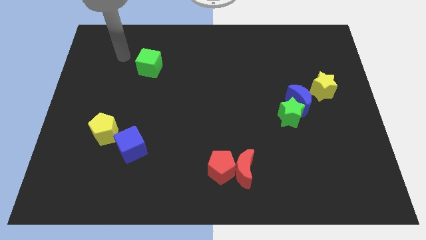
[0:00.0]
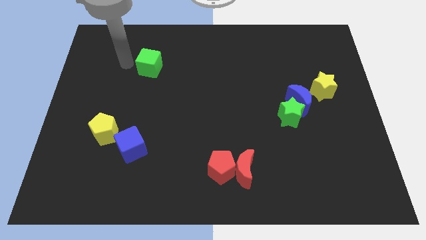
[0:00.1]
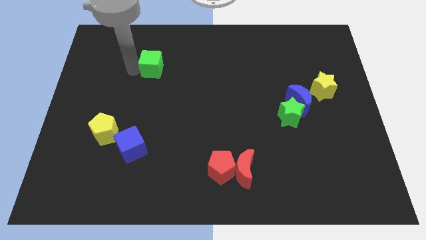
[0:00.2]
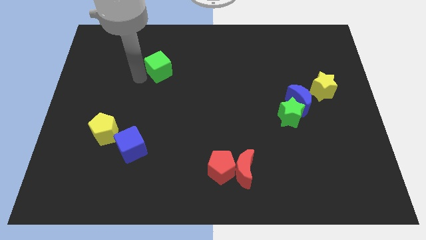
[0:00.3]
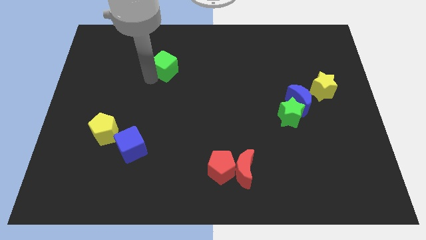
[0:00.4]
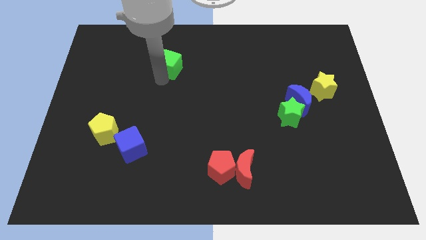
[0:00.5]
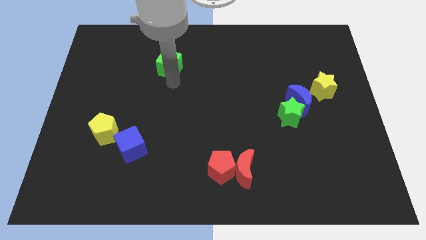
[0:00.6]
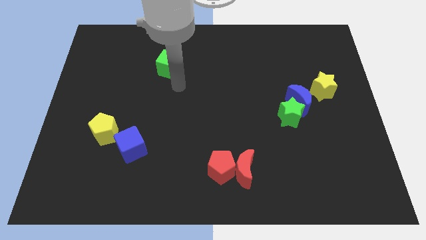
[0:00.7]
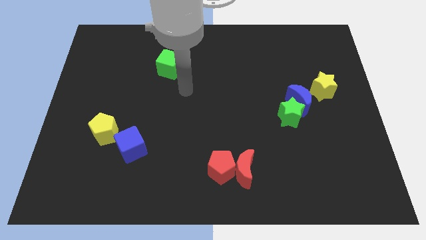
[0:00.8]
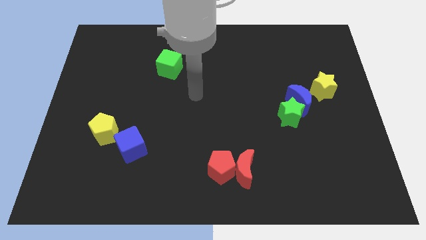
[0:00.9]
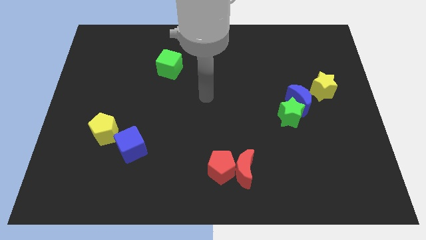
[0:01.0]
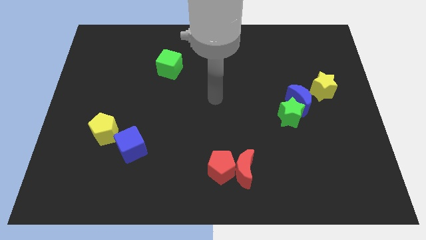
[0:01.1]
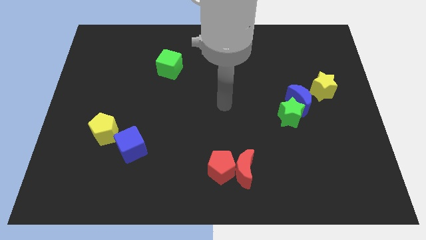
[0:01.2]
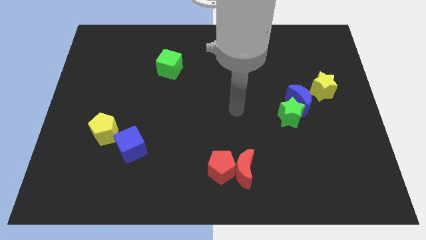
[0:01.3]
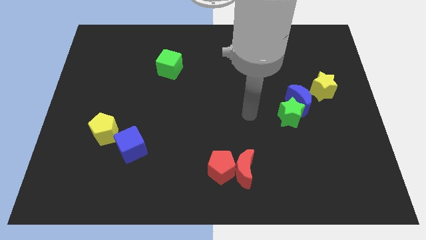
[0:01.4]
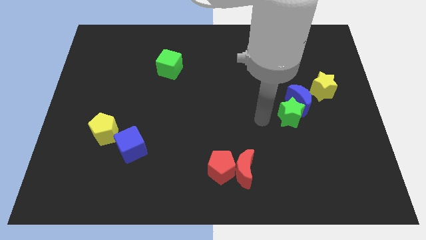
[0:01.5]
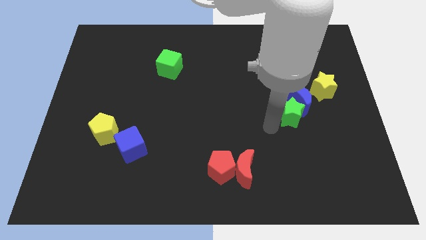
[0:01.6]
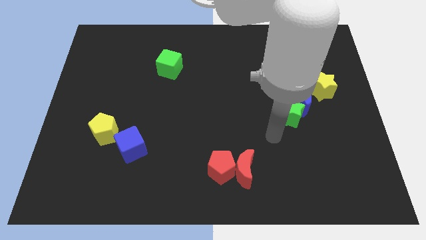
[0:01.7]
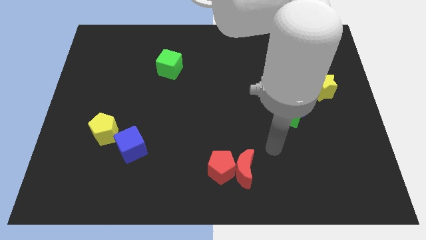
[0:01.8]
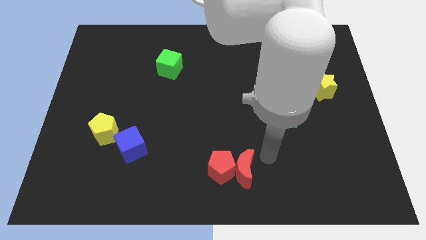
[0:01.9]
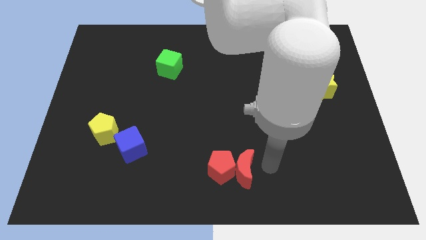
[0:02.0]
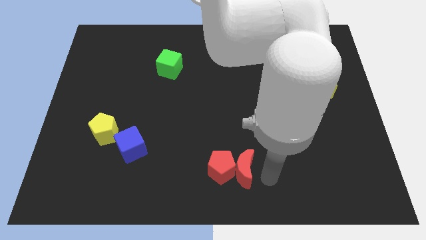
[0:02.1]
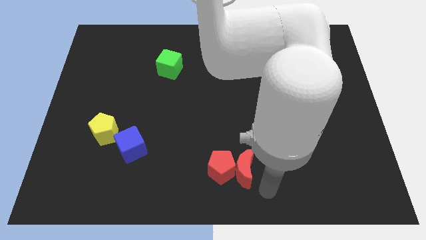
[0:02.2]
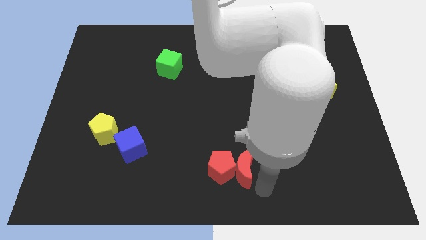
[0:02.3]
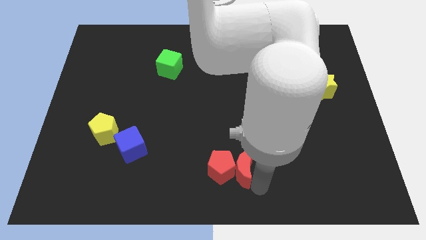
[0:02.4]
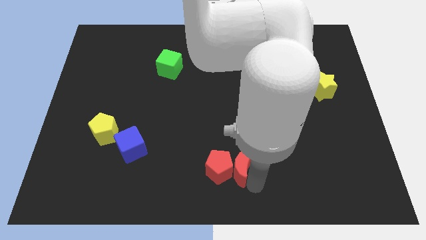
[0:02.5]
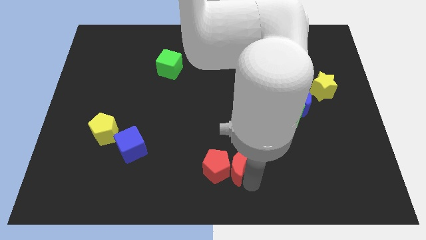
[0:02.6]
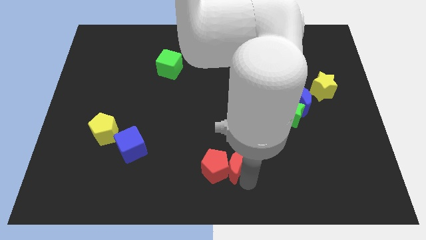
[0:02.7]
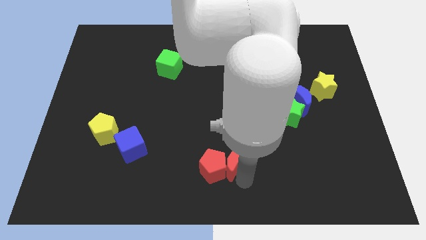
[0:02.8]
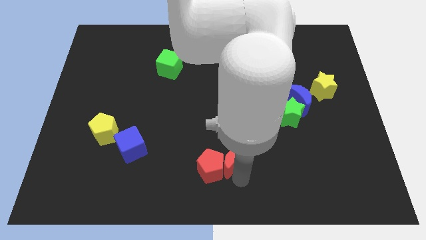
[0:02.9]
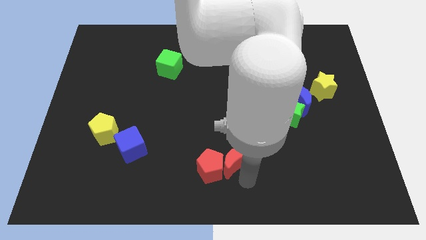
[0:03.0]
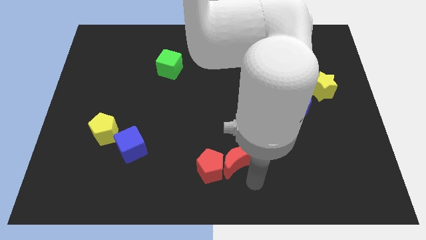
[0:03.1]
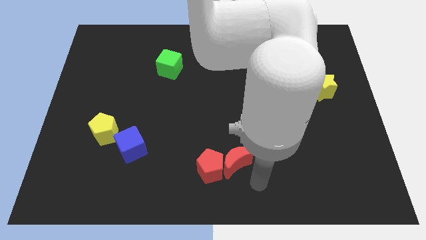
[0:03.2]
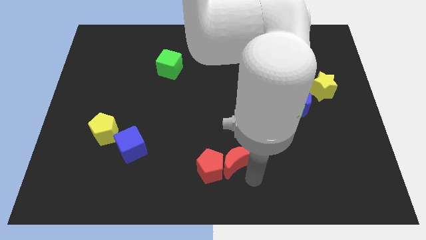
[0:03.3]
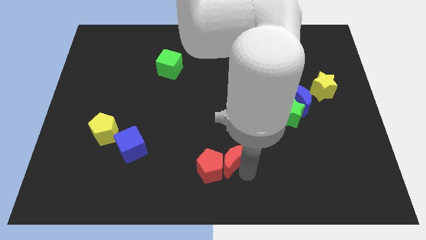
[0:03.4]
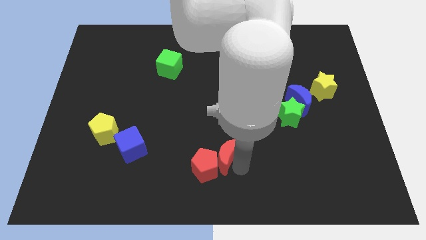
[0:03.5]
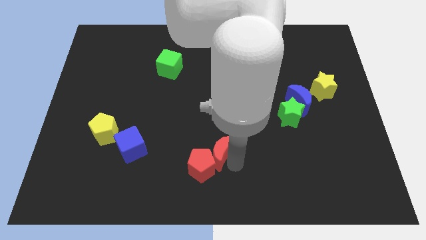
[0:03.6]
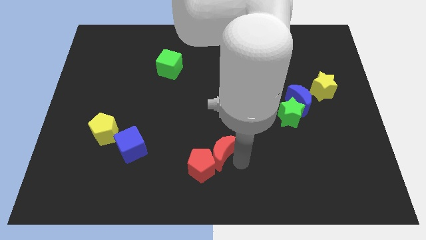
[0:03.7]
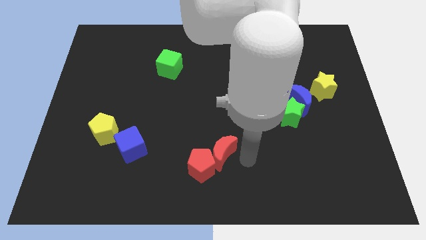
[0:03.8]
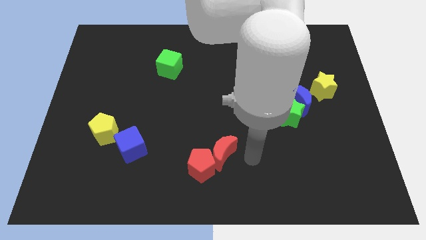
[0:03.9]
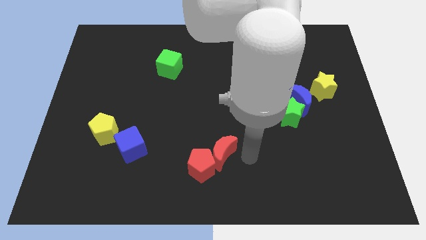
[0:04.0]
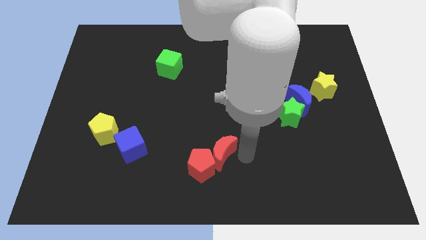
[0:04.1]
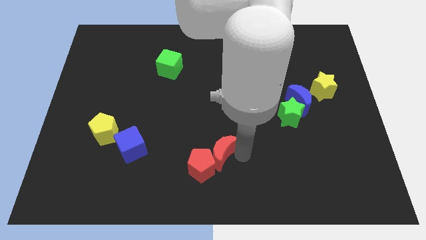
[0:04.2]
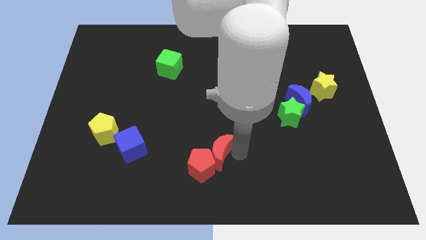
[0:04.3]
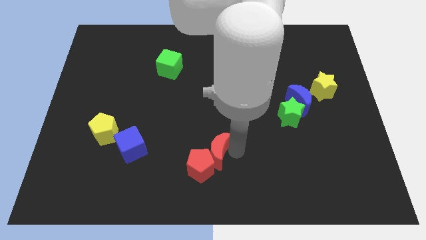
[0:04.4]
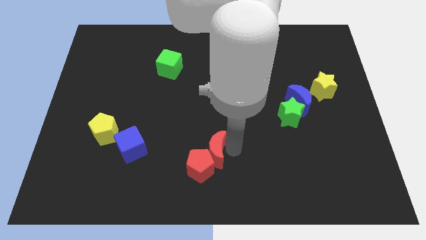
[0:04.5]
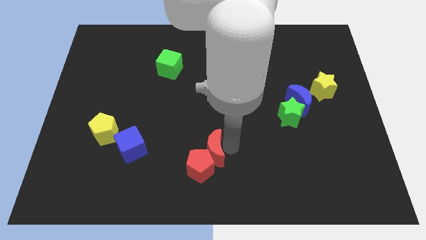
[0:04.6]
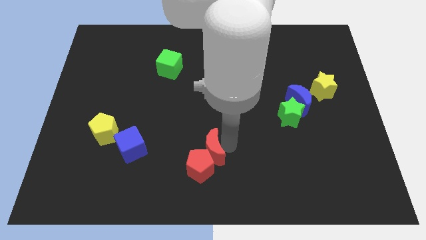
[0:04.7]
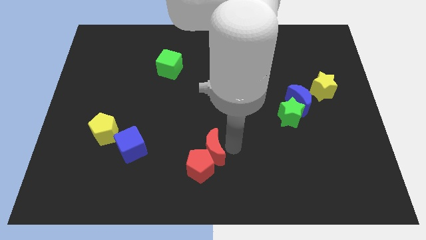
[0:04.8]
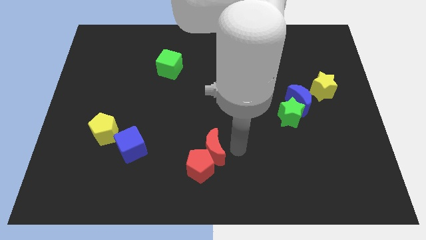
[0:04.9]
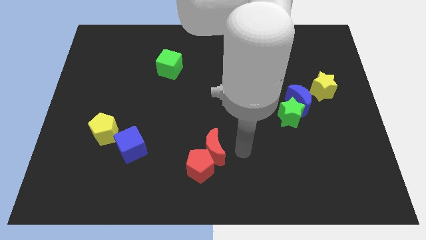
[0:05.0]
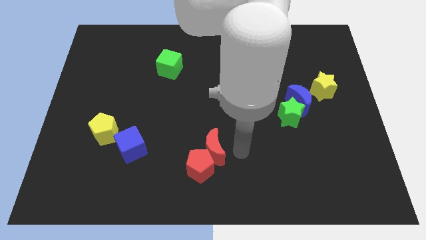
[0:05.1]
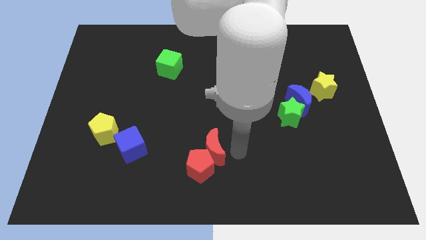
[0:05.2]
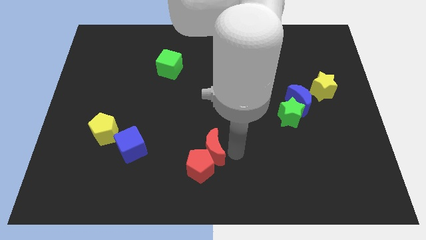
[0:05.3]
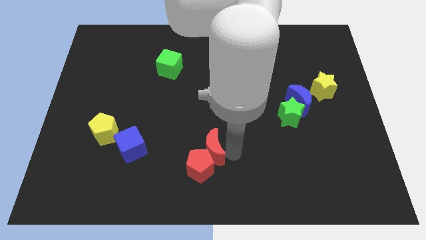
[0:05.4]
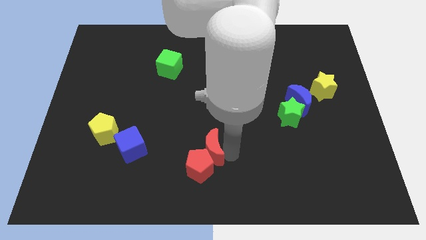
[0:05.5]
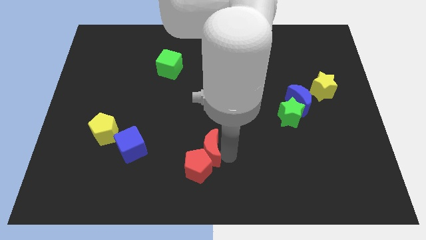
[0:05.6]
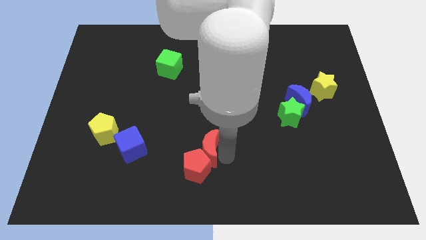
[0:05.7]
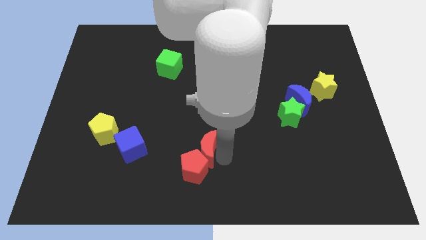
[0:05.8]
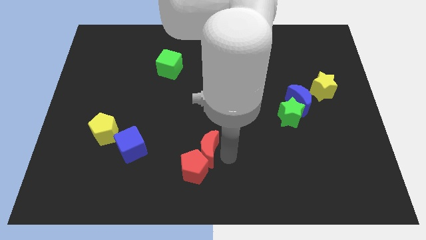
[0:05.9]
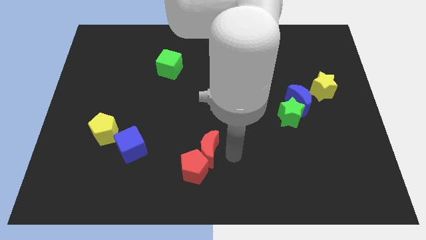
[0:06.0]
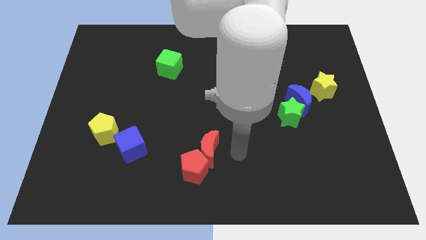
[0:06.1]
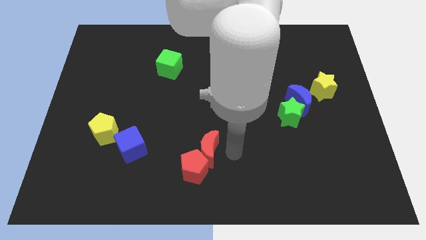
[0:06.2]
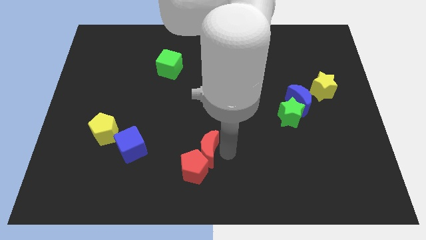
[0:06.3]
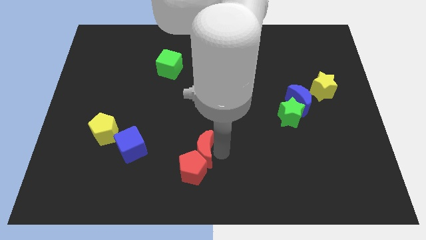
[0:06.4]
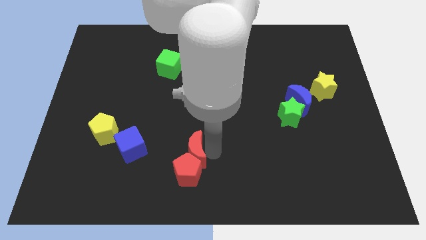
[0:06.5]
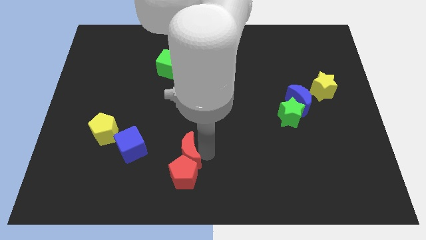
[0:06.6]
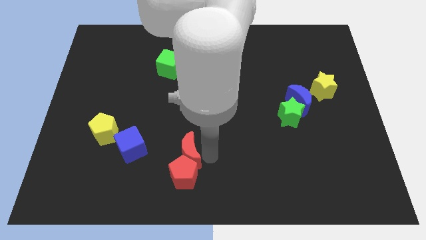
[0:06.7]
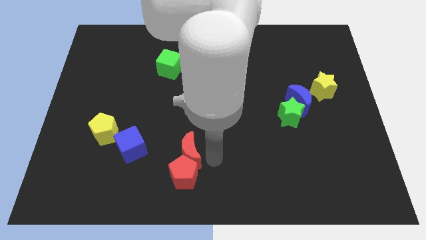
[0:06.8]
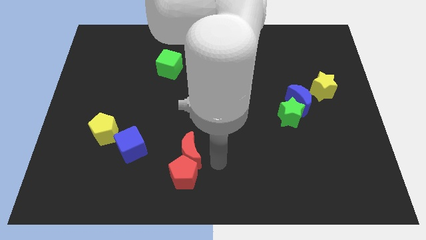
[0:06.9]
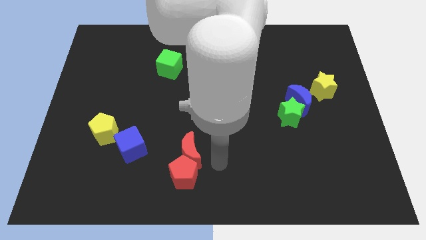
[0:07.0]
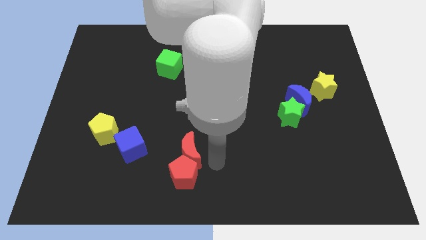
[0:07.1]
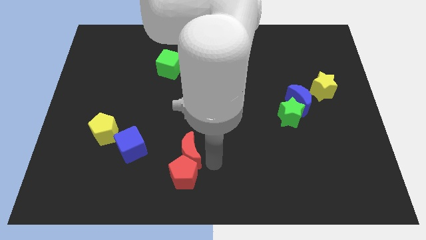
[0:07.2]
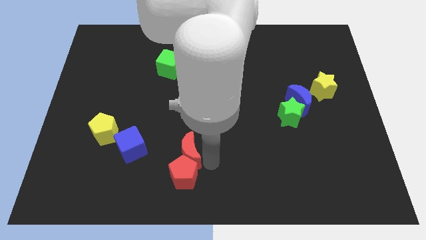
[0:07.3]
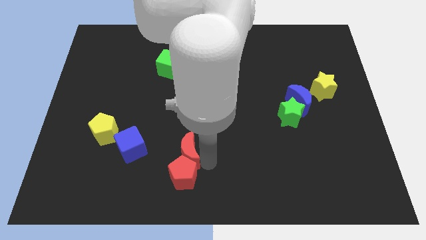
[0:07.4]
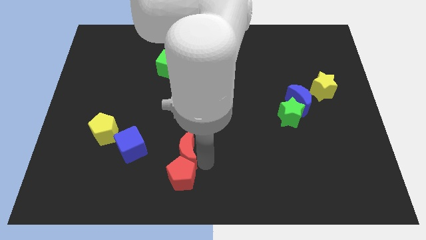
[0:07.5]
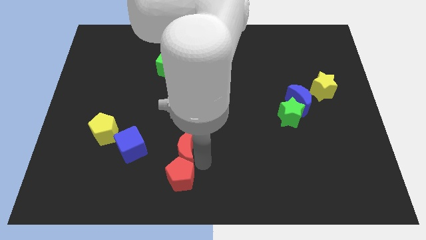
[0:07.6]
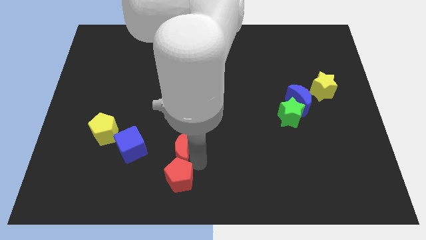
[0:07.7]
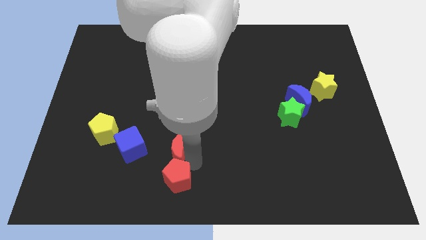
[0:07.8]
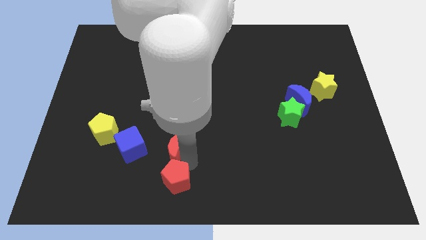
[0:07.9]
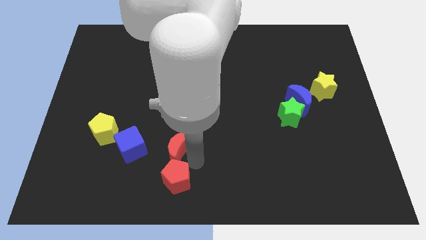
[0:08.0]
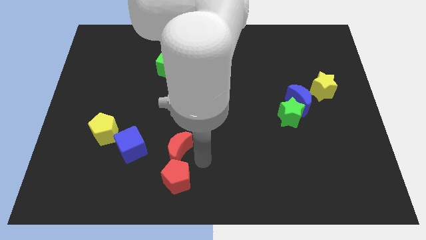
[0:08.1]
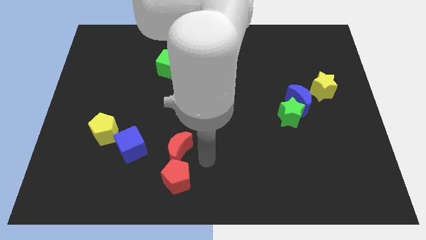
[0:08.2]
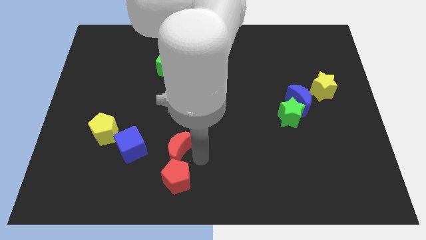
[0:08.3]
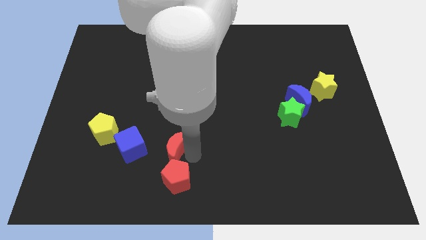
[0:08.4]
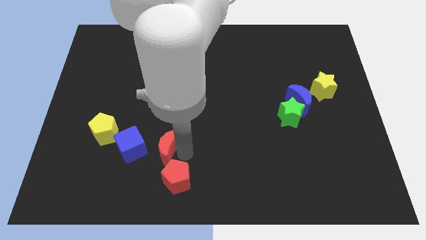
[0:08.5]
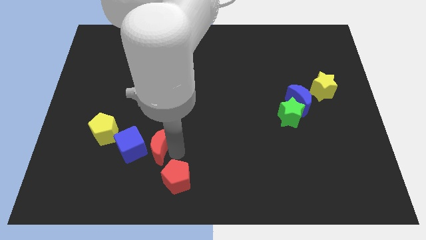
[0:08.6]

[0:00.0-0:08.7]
move the red moon next to the blue cube

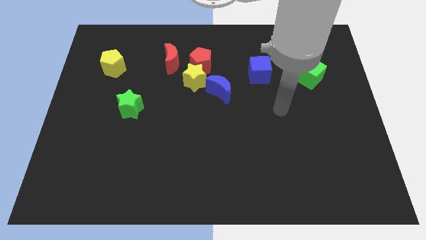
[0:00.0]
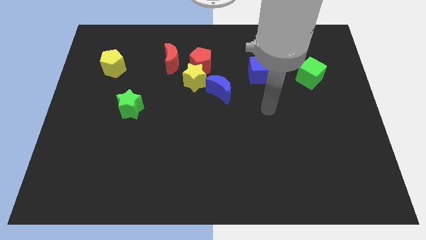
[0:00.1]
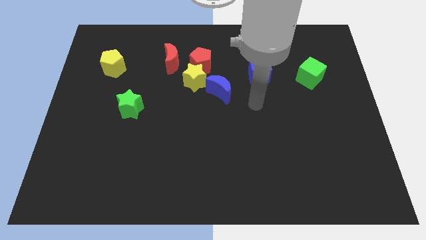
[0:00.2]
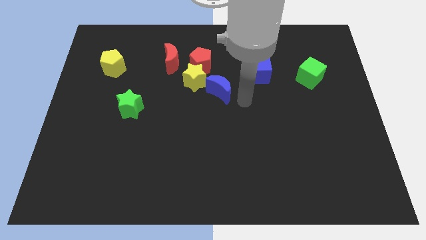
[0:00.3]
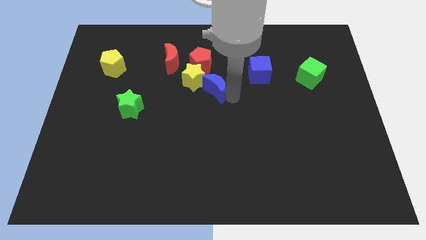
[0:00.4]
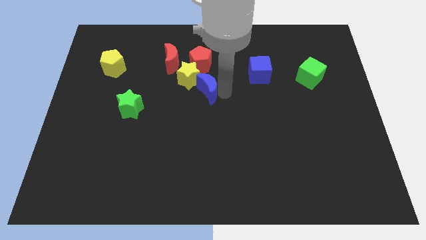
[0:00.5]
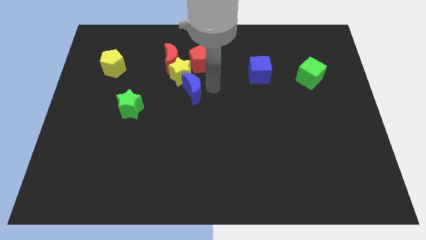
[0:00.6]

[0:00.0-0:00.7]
push the yellow star to the red moon
